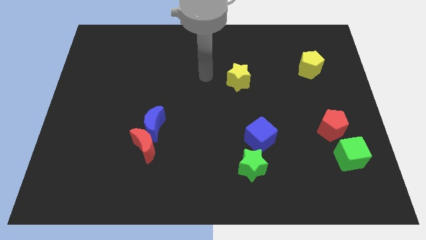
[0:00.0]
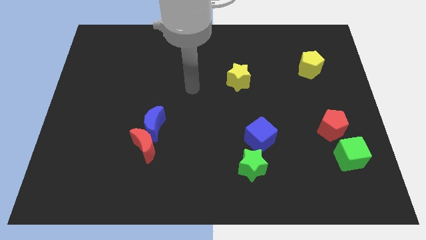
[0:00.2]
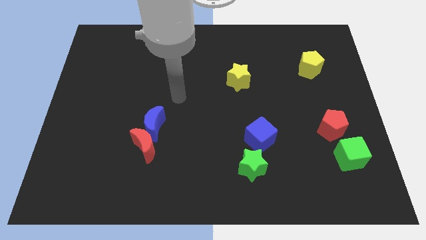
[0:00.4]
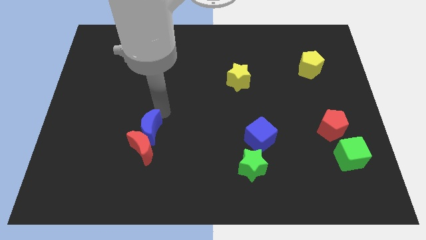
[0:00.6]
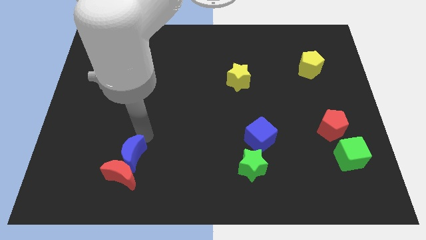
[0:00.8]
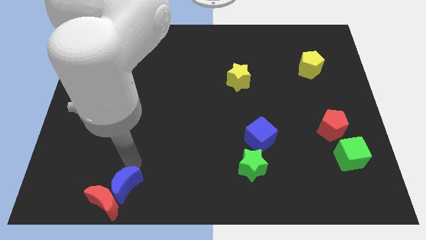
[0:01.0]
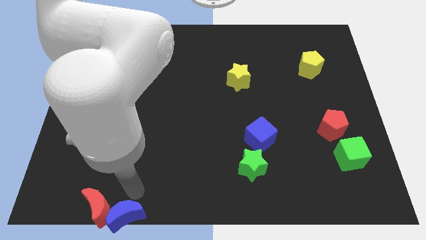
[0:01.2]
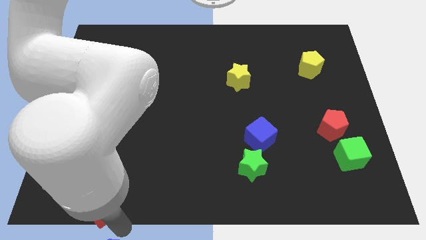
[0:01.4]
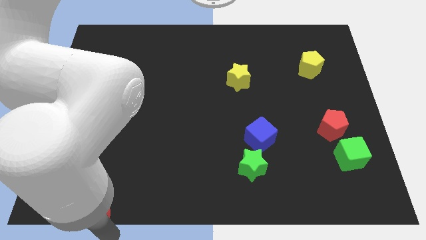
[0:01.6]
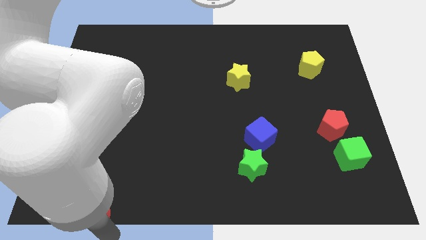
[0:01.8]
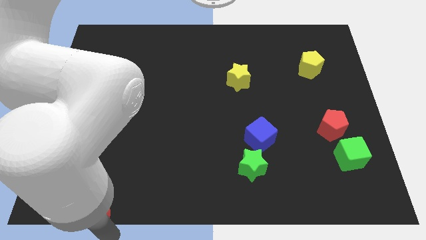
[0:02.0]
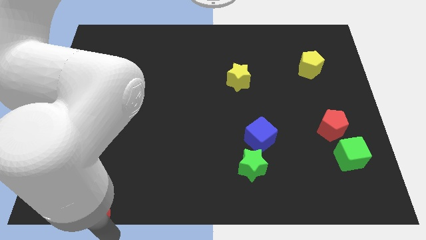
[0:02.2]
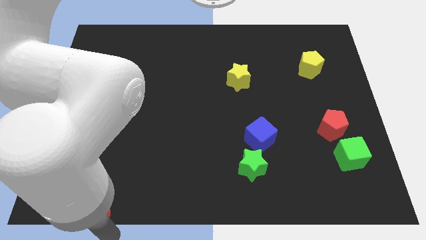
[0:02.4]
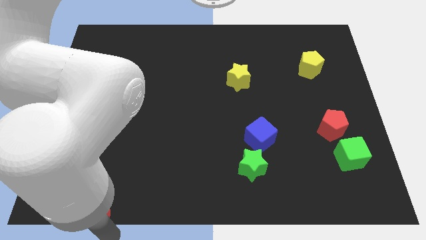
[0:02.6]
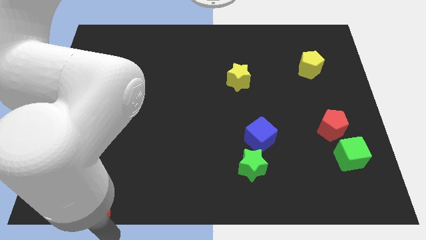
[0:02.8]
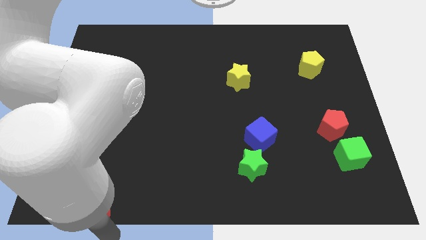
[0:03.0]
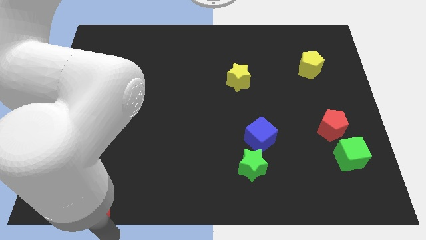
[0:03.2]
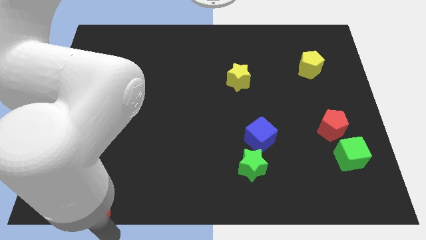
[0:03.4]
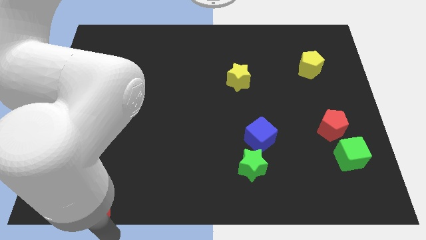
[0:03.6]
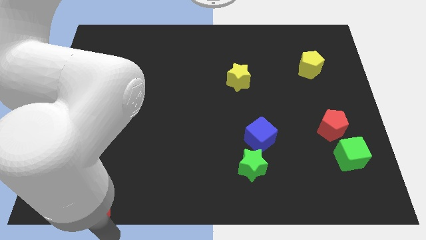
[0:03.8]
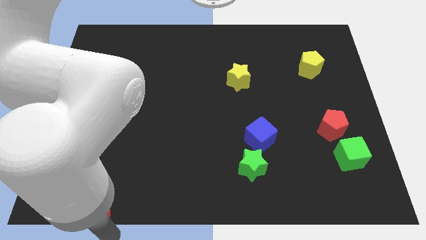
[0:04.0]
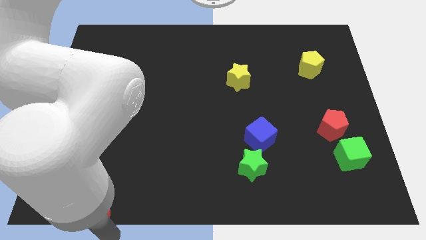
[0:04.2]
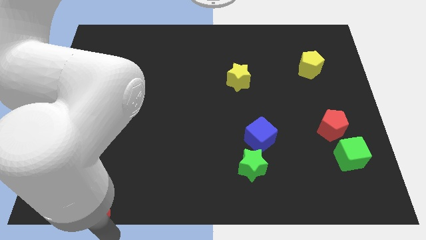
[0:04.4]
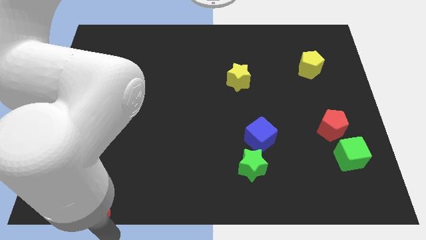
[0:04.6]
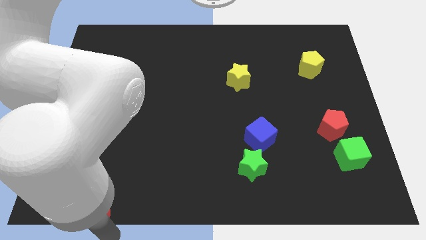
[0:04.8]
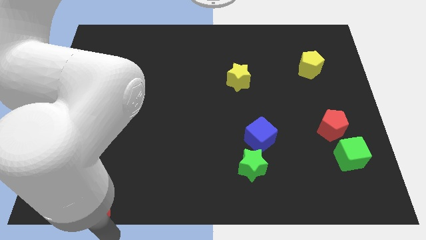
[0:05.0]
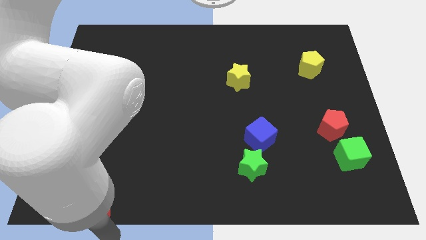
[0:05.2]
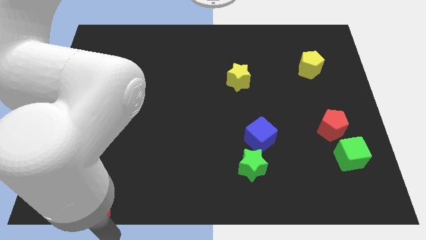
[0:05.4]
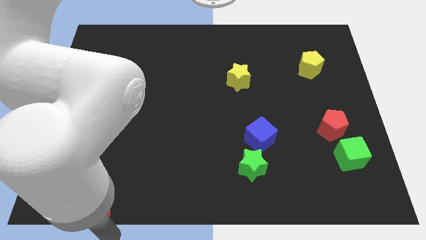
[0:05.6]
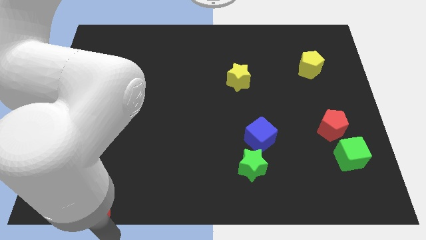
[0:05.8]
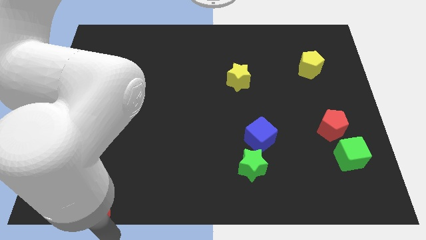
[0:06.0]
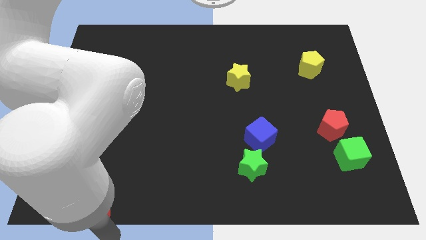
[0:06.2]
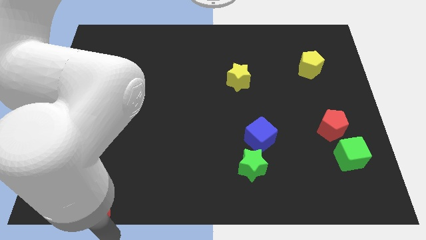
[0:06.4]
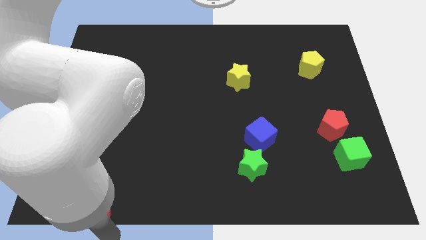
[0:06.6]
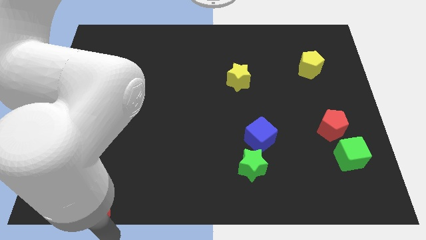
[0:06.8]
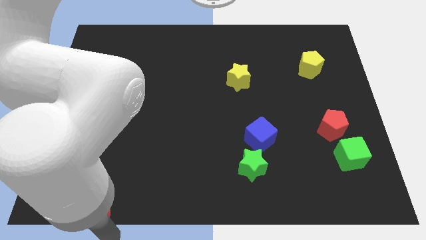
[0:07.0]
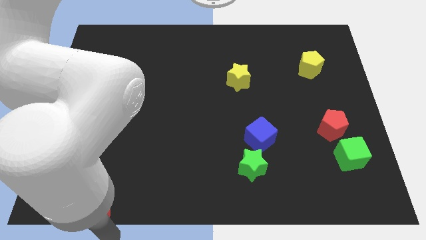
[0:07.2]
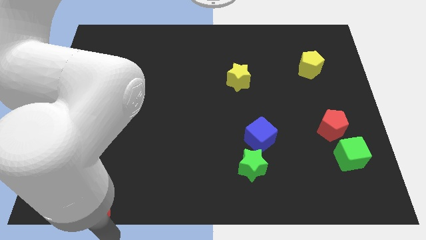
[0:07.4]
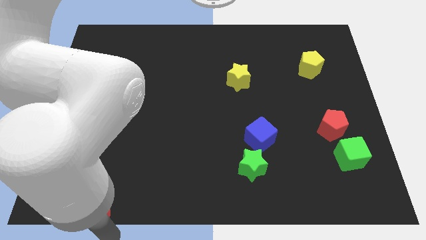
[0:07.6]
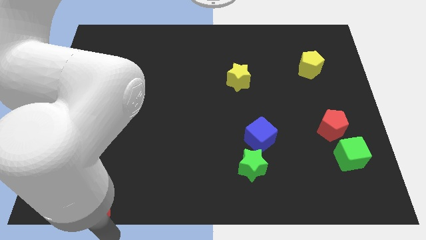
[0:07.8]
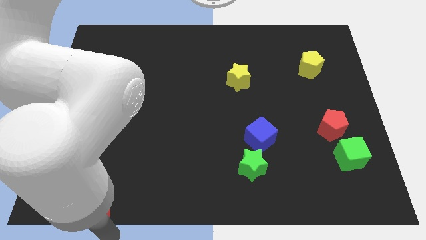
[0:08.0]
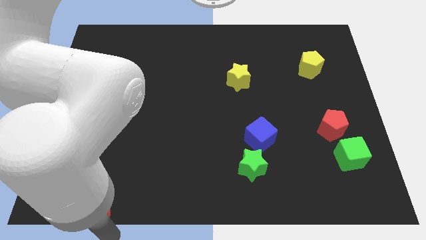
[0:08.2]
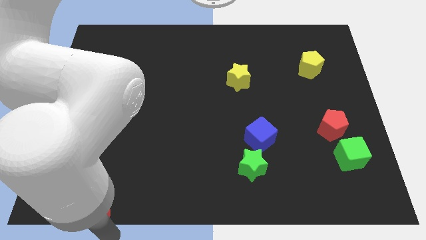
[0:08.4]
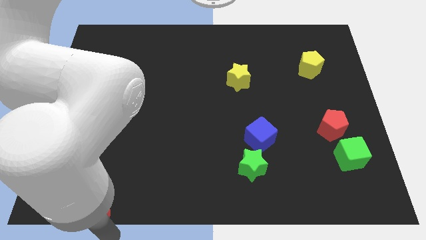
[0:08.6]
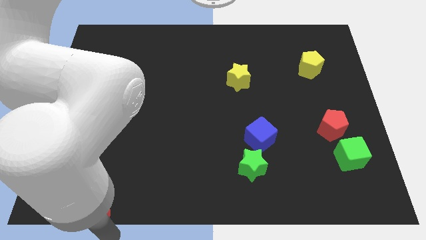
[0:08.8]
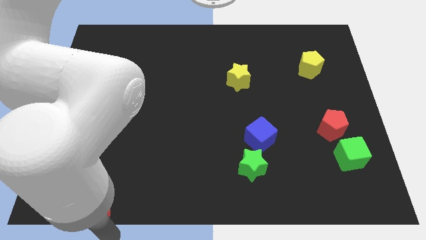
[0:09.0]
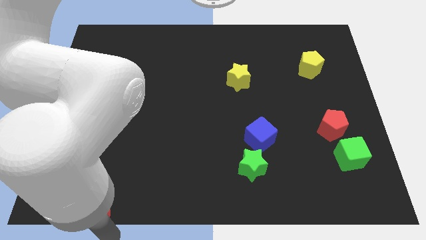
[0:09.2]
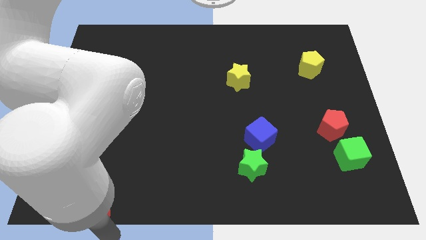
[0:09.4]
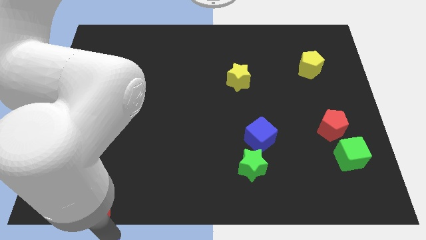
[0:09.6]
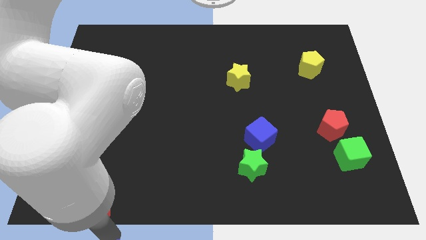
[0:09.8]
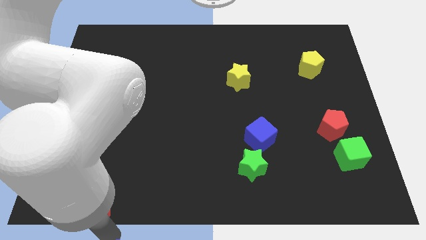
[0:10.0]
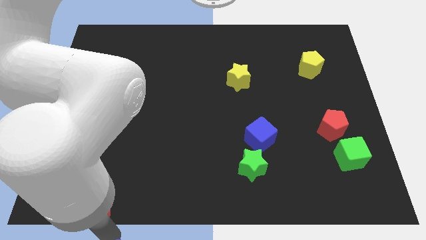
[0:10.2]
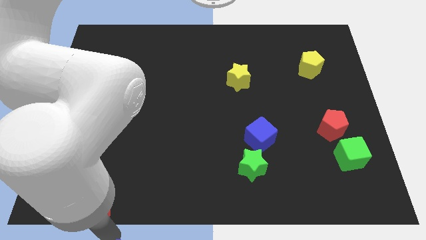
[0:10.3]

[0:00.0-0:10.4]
move the red moon away from the blue moon

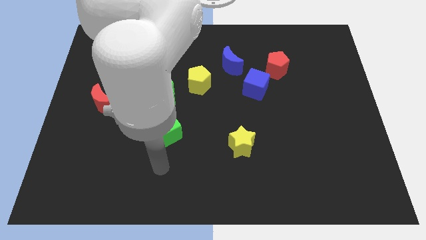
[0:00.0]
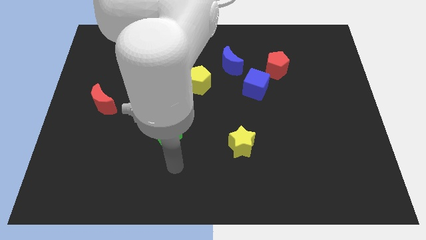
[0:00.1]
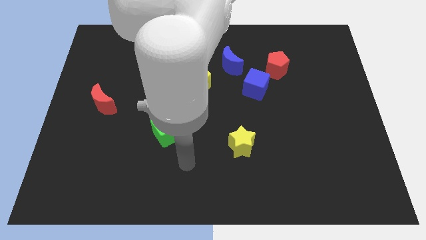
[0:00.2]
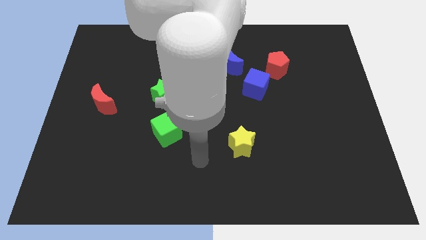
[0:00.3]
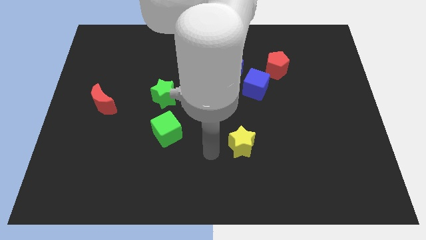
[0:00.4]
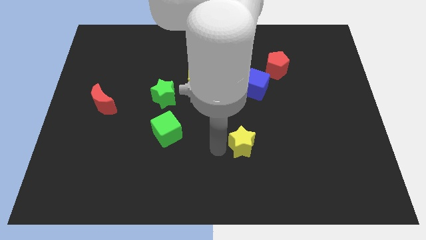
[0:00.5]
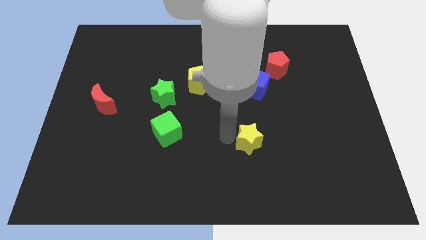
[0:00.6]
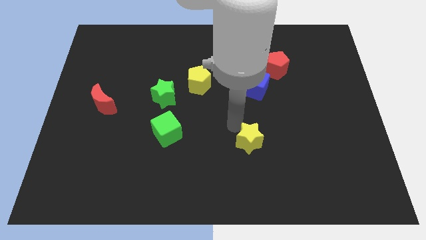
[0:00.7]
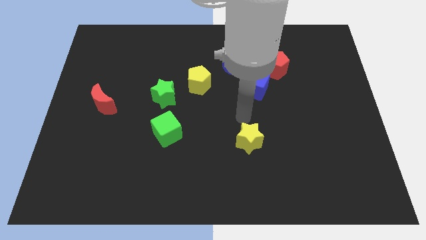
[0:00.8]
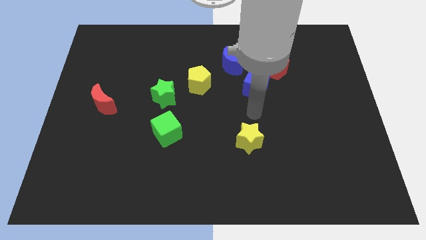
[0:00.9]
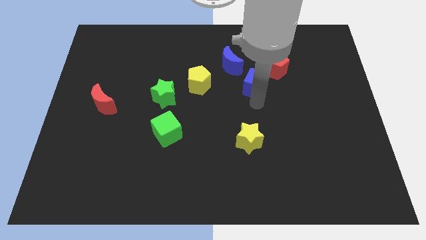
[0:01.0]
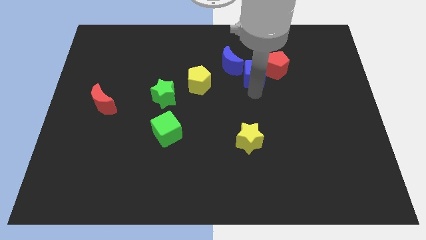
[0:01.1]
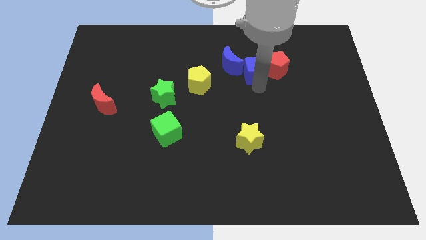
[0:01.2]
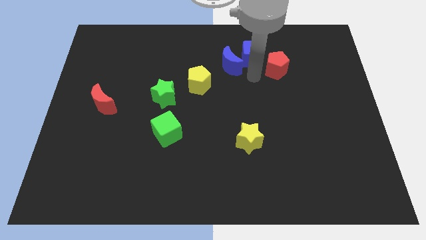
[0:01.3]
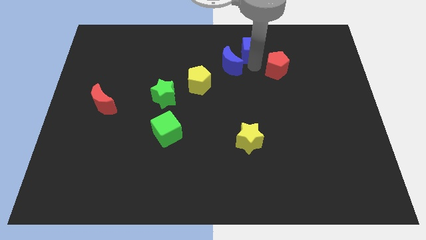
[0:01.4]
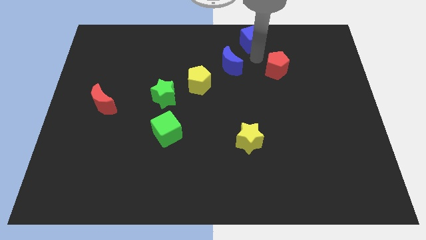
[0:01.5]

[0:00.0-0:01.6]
move the red pentagon away from the blue cube

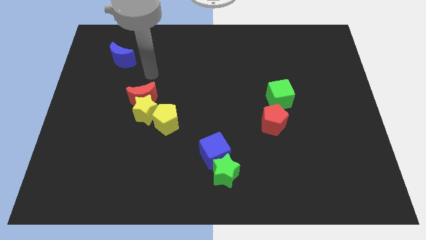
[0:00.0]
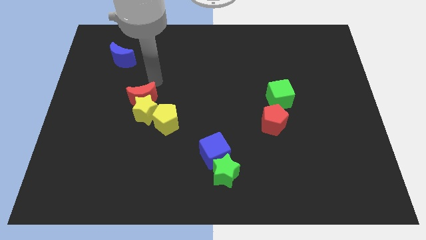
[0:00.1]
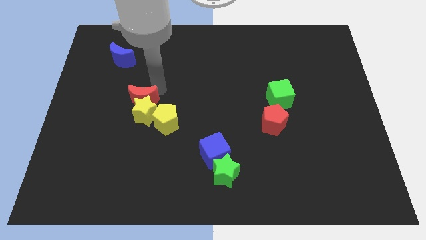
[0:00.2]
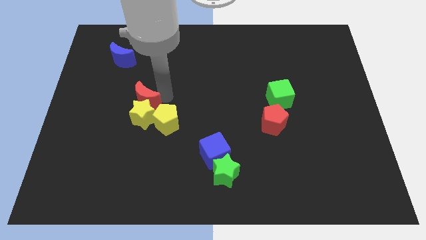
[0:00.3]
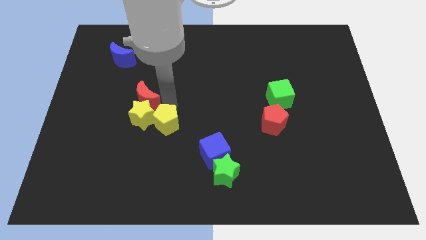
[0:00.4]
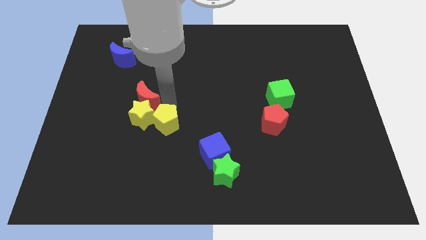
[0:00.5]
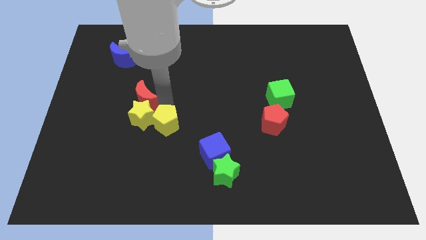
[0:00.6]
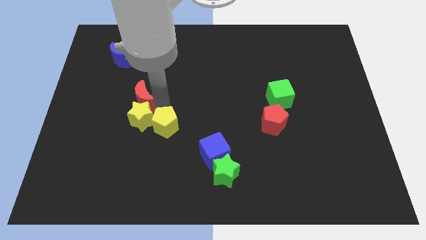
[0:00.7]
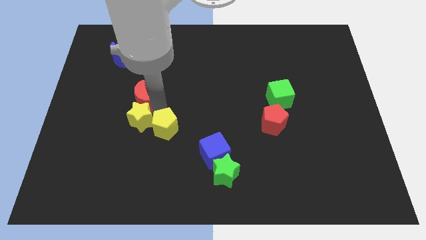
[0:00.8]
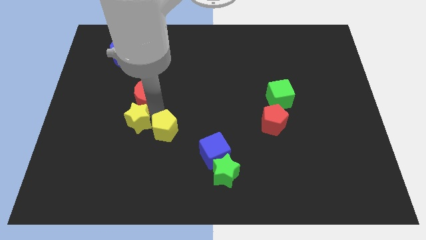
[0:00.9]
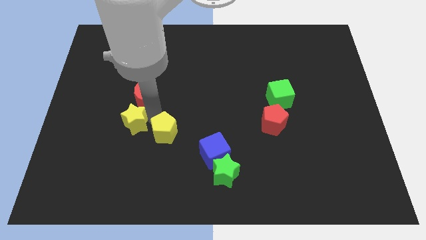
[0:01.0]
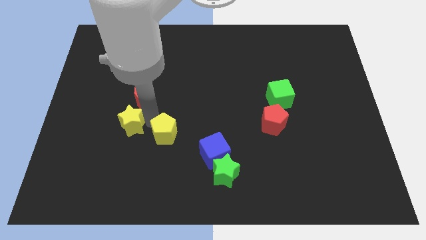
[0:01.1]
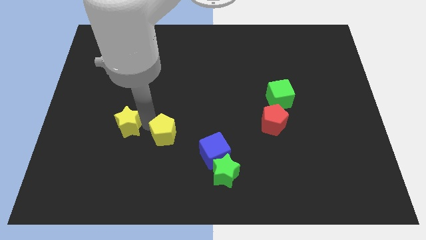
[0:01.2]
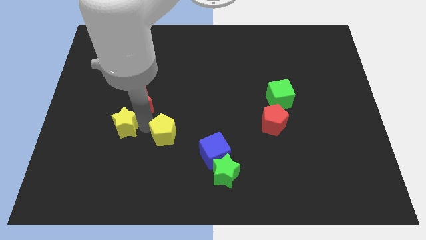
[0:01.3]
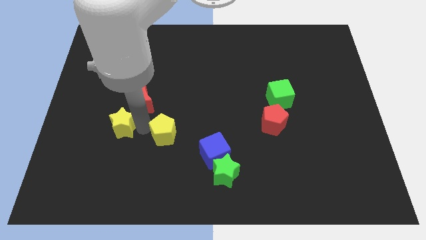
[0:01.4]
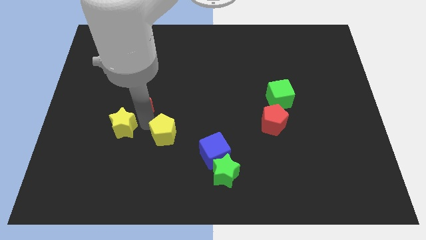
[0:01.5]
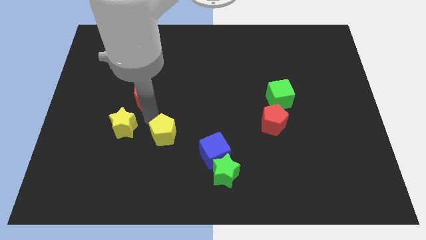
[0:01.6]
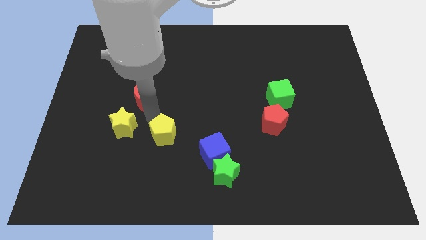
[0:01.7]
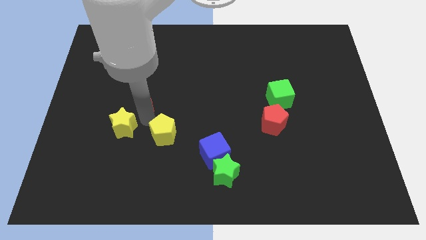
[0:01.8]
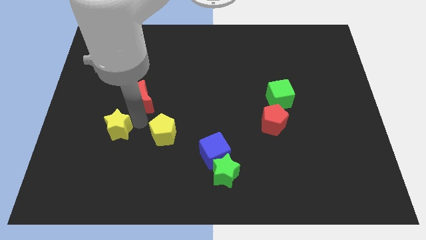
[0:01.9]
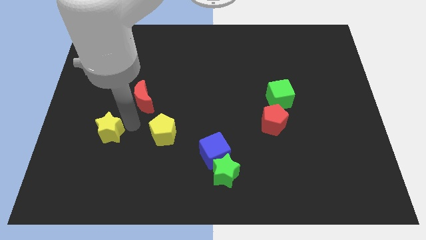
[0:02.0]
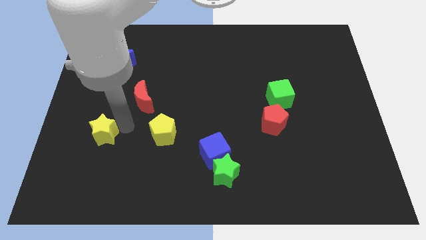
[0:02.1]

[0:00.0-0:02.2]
pull the yellow star apart from the red moon and yellow pentagon

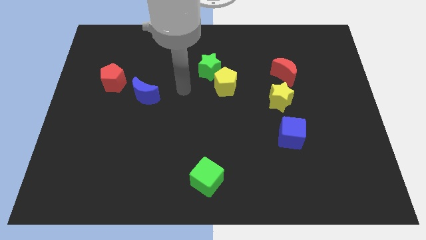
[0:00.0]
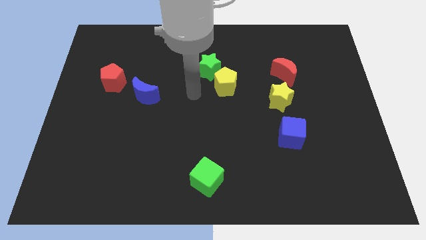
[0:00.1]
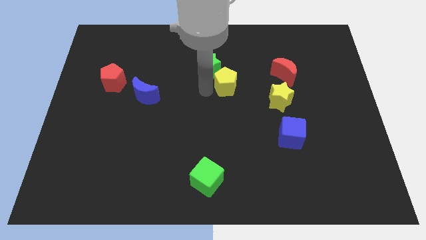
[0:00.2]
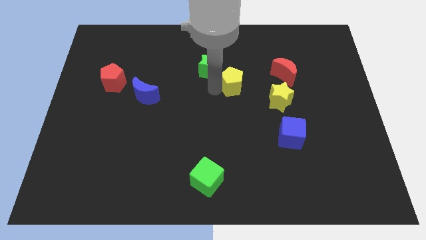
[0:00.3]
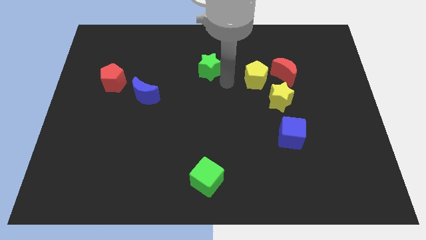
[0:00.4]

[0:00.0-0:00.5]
move the green star away from the yellow pentagon
